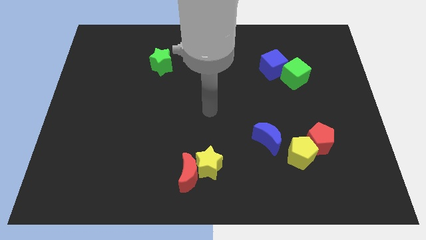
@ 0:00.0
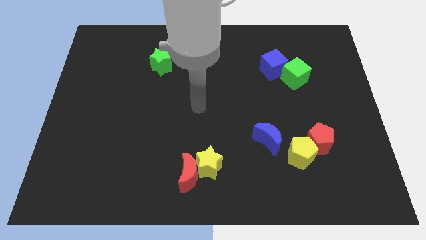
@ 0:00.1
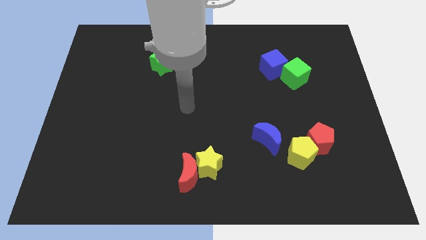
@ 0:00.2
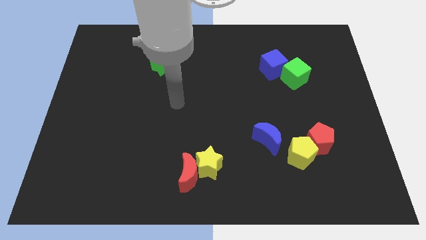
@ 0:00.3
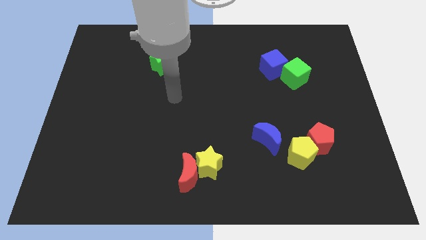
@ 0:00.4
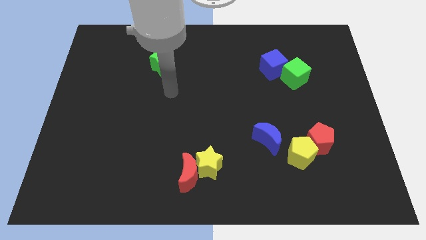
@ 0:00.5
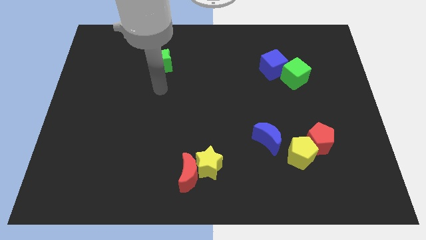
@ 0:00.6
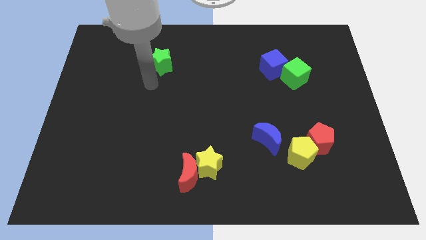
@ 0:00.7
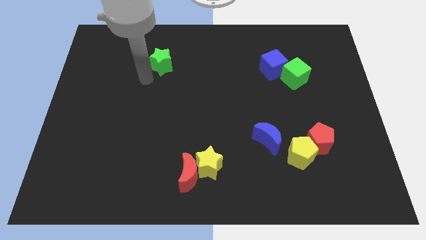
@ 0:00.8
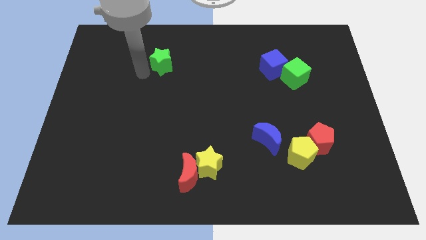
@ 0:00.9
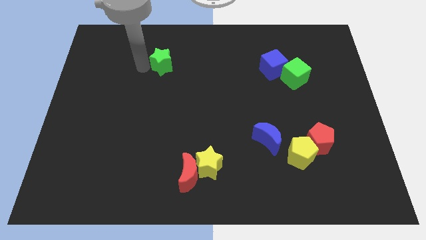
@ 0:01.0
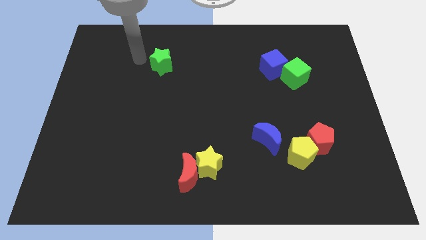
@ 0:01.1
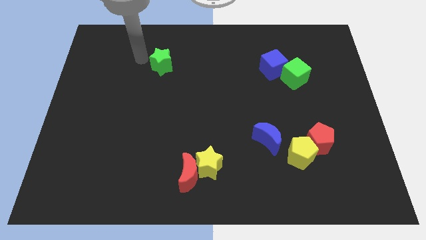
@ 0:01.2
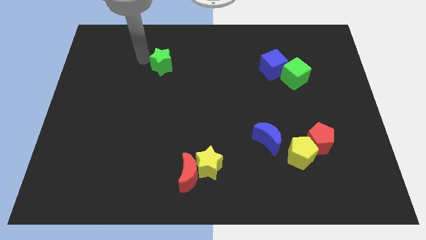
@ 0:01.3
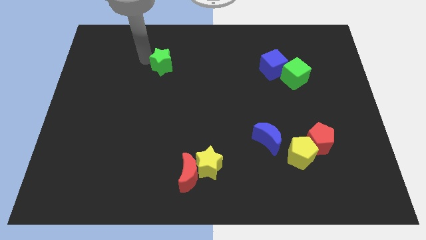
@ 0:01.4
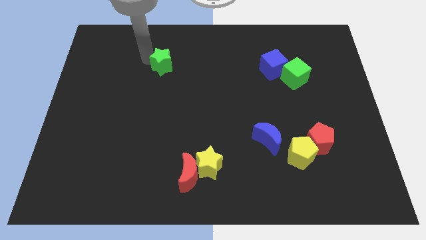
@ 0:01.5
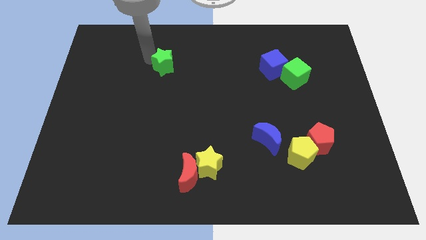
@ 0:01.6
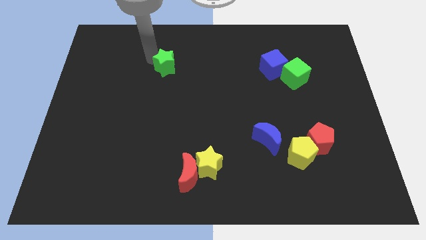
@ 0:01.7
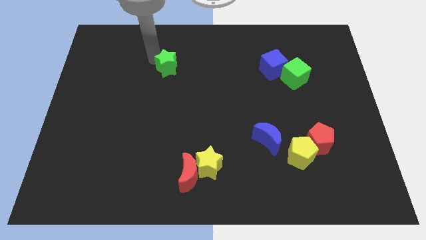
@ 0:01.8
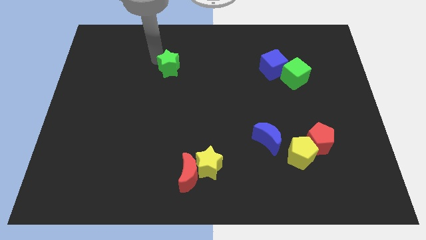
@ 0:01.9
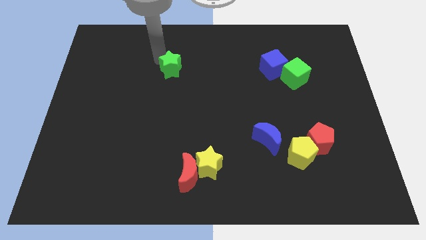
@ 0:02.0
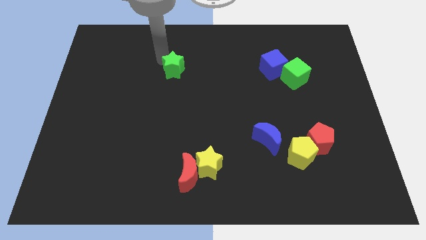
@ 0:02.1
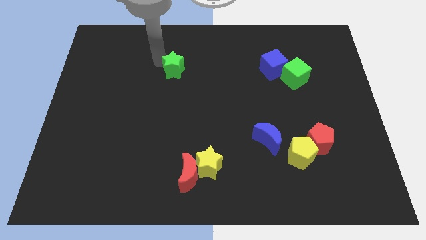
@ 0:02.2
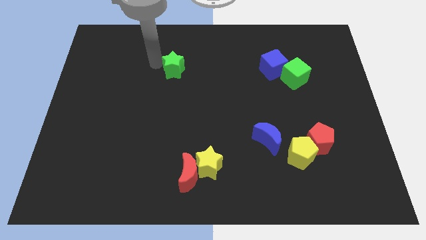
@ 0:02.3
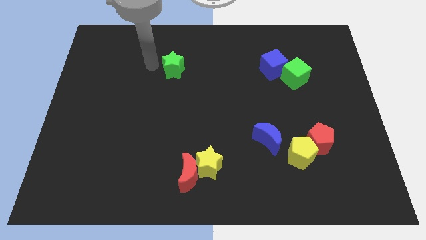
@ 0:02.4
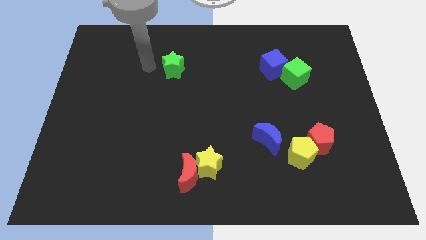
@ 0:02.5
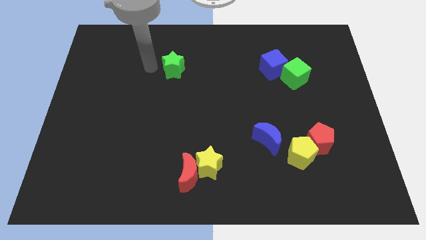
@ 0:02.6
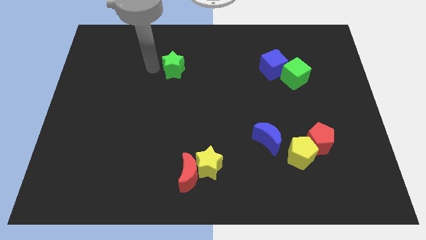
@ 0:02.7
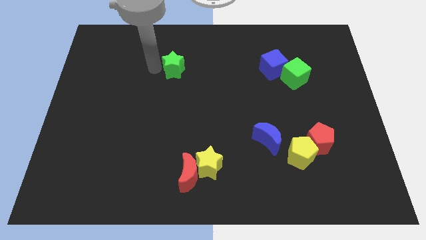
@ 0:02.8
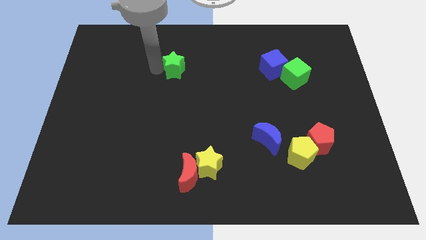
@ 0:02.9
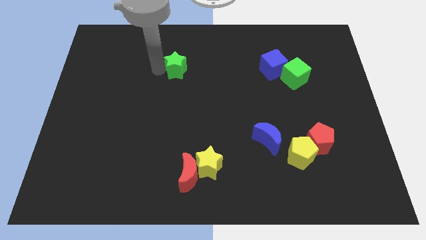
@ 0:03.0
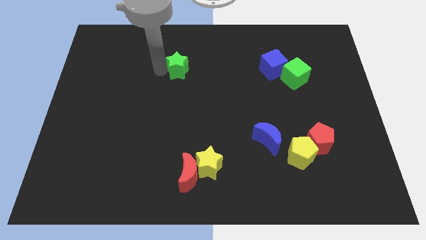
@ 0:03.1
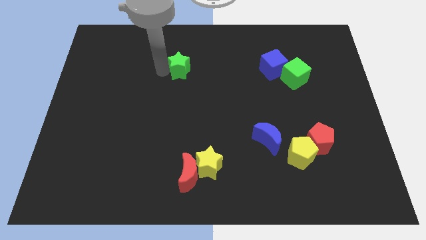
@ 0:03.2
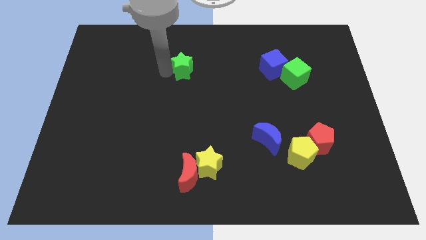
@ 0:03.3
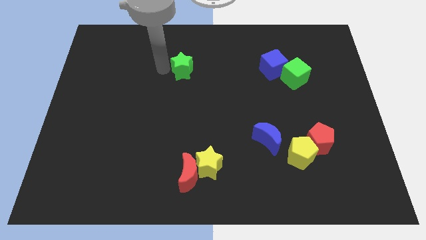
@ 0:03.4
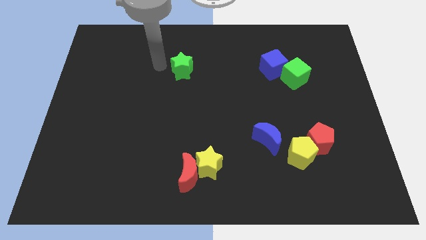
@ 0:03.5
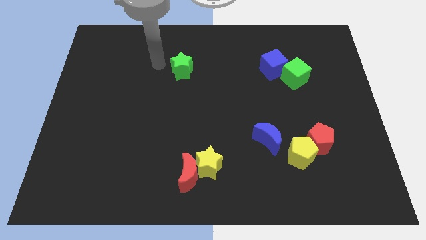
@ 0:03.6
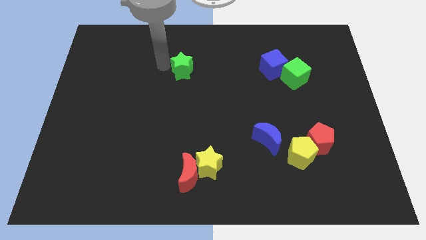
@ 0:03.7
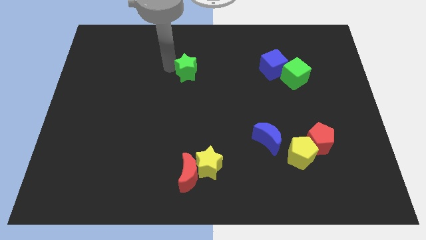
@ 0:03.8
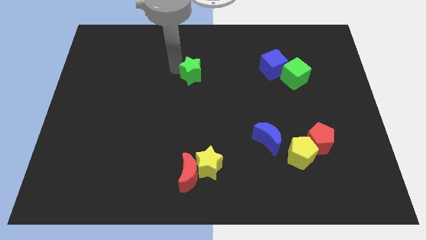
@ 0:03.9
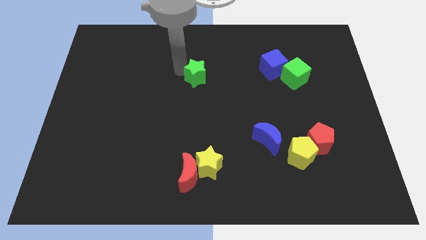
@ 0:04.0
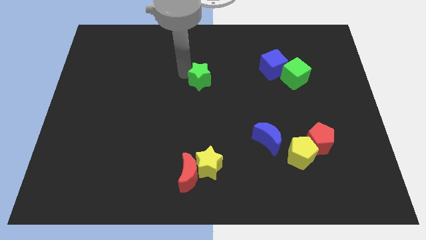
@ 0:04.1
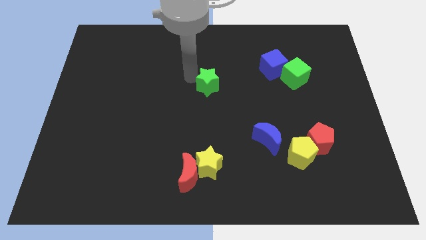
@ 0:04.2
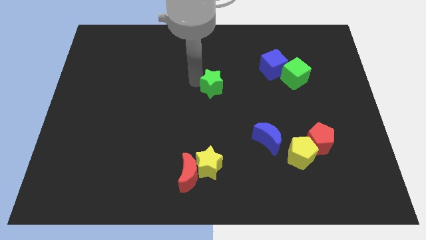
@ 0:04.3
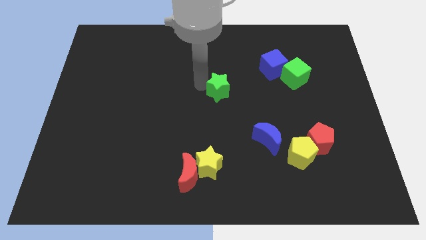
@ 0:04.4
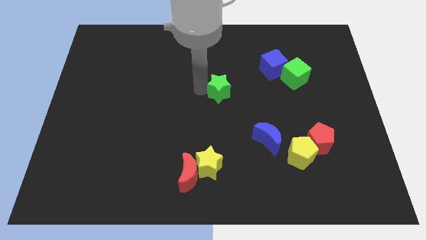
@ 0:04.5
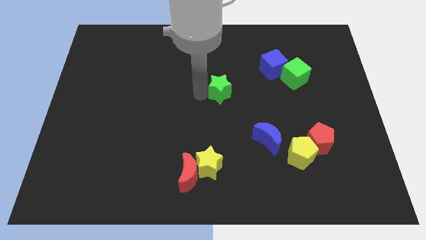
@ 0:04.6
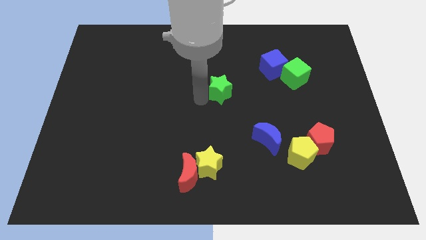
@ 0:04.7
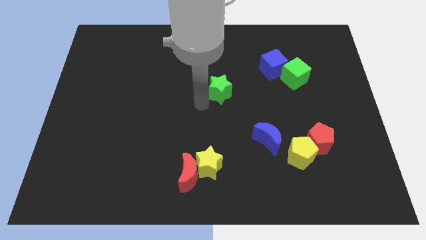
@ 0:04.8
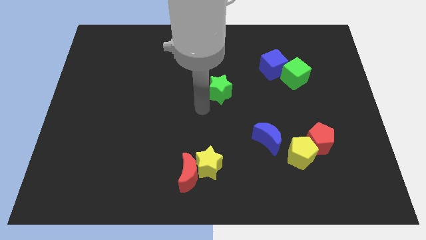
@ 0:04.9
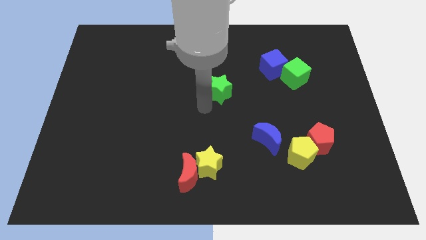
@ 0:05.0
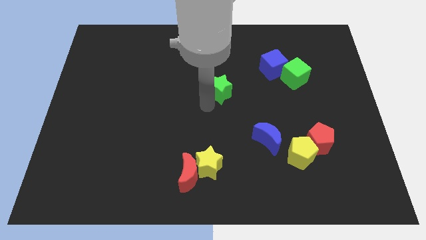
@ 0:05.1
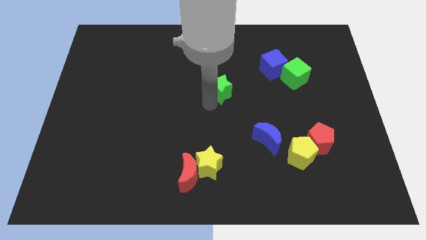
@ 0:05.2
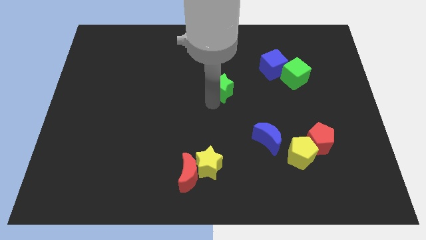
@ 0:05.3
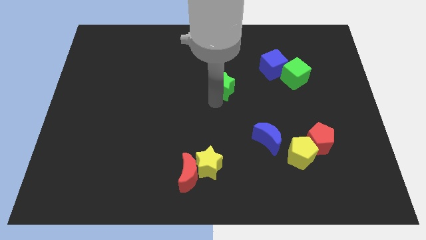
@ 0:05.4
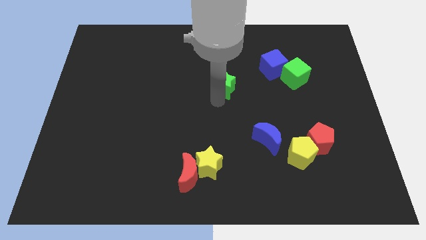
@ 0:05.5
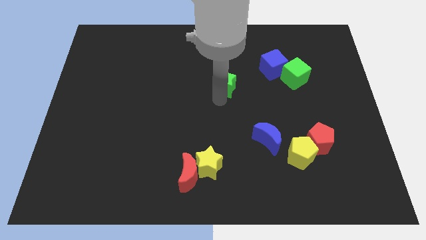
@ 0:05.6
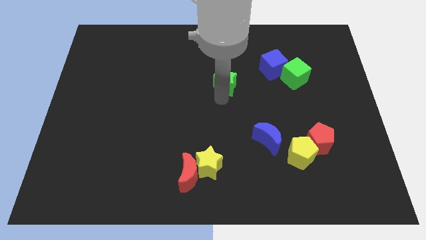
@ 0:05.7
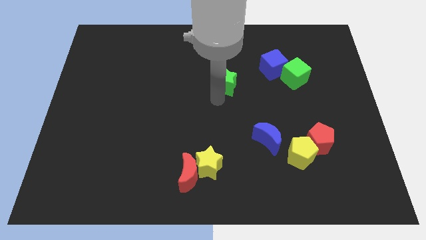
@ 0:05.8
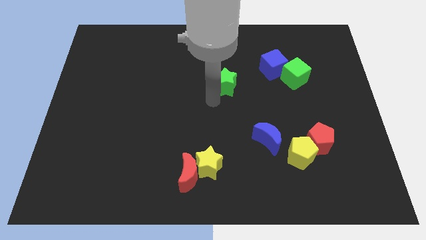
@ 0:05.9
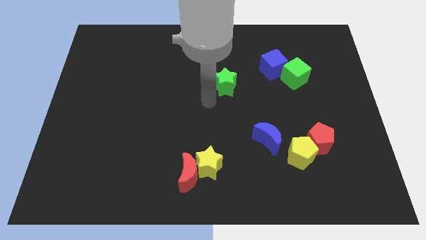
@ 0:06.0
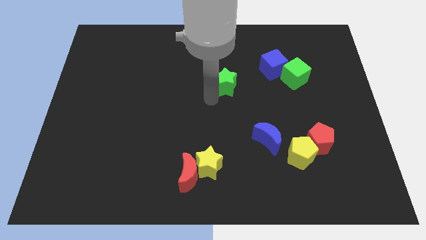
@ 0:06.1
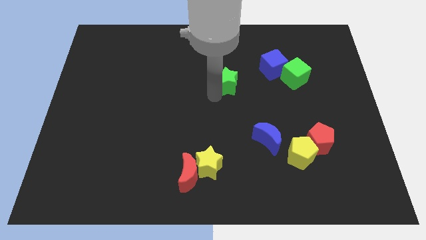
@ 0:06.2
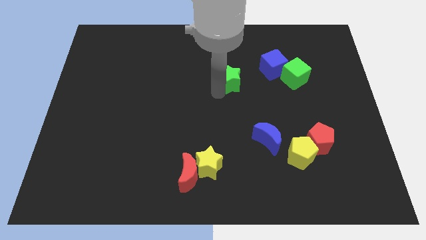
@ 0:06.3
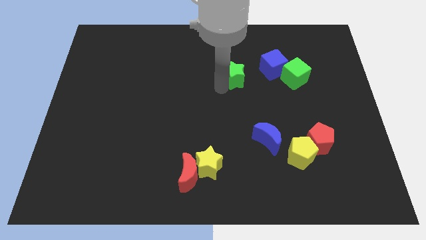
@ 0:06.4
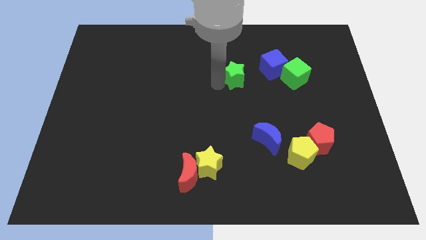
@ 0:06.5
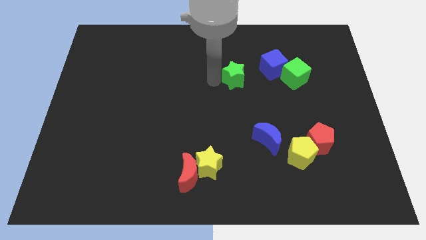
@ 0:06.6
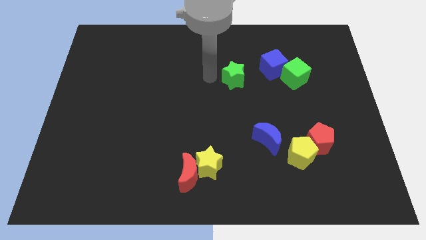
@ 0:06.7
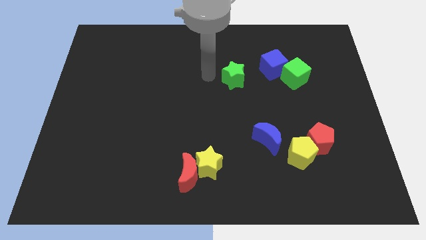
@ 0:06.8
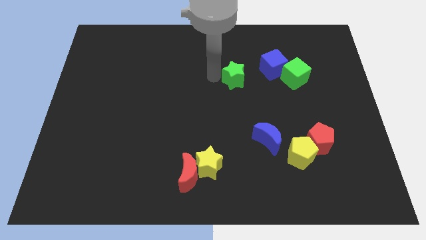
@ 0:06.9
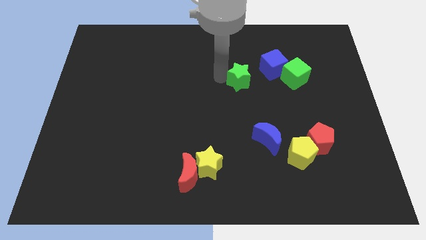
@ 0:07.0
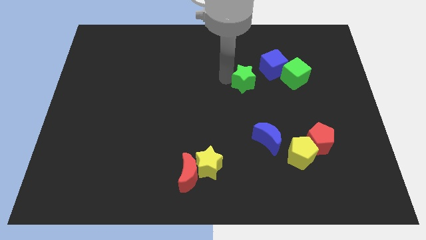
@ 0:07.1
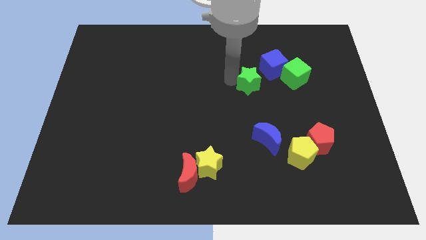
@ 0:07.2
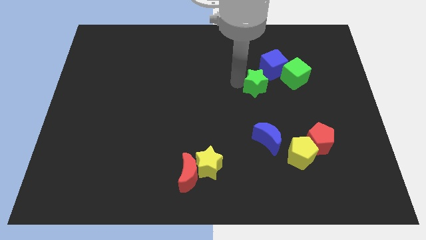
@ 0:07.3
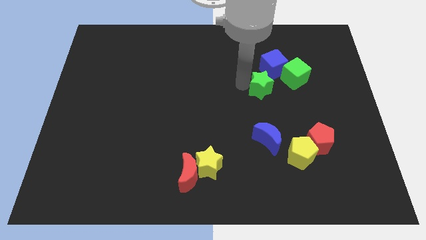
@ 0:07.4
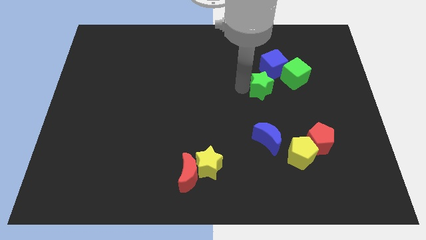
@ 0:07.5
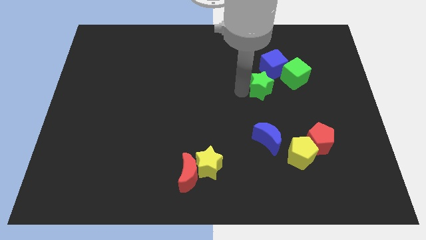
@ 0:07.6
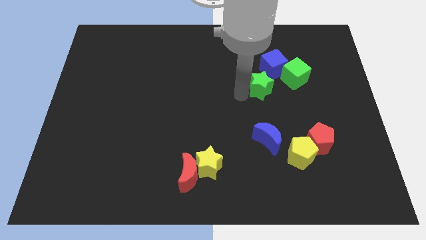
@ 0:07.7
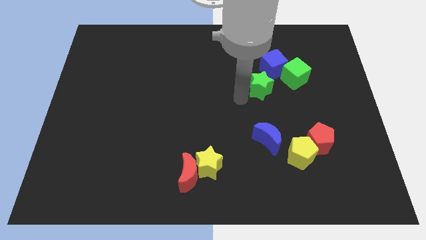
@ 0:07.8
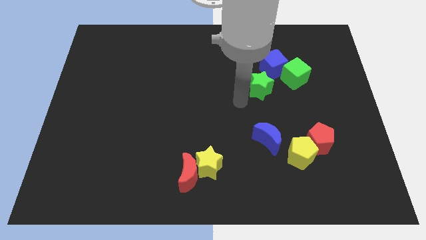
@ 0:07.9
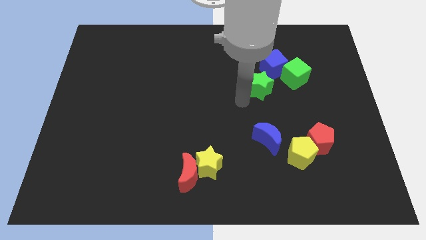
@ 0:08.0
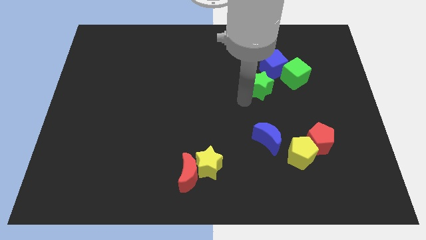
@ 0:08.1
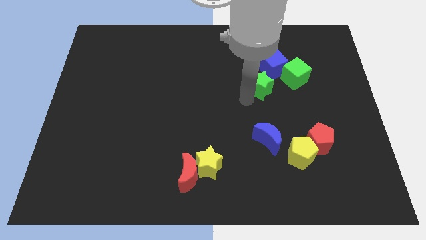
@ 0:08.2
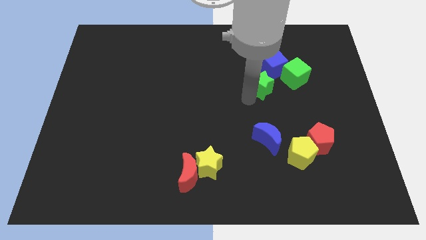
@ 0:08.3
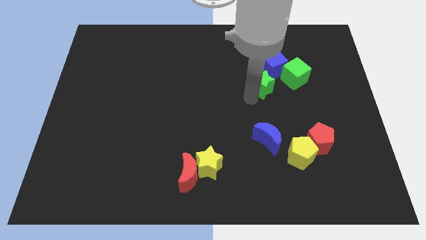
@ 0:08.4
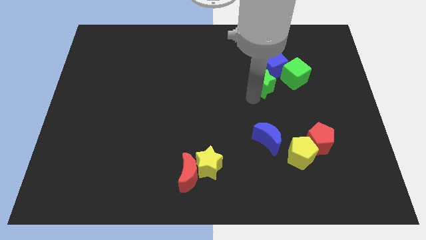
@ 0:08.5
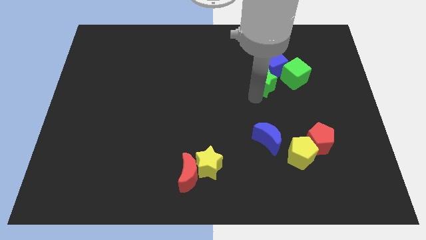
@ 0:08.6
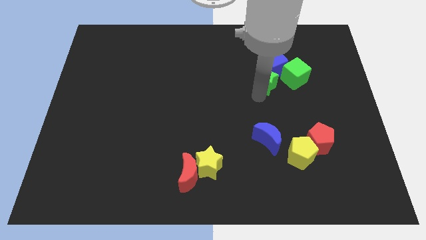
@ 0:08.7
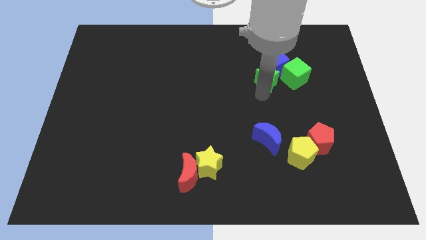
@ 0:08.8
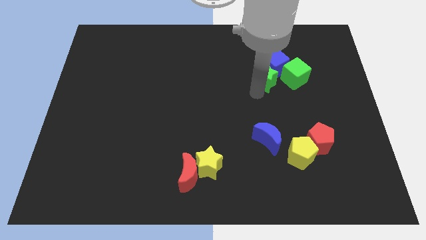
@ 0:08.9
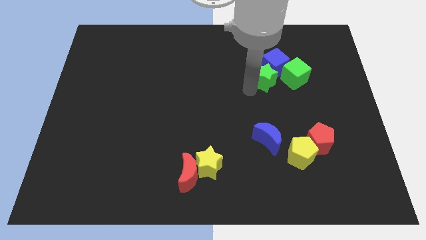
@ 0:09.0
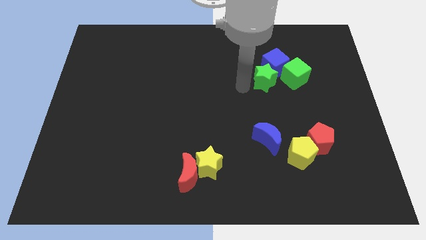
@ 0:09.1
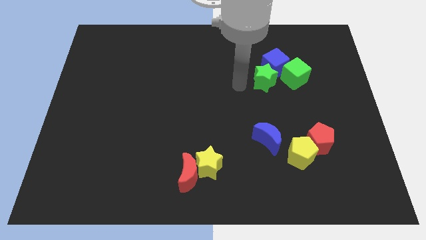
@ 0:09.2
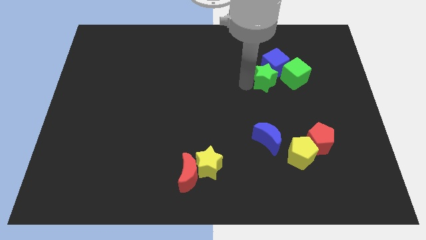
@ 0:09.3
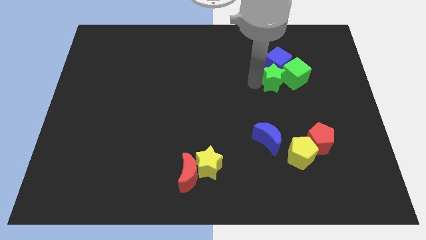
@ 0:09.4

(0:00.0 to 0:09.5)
push the green star towards the green cube
